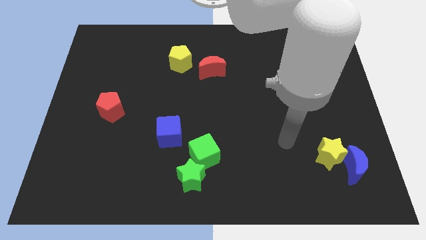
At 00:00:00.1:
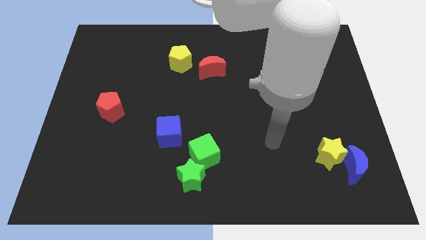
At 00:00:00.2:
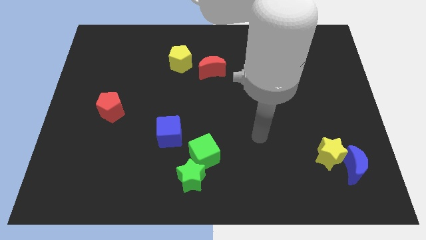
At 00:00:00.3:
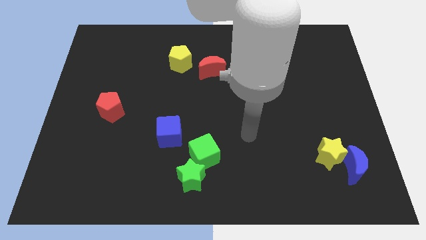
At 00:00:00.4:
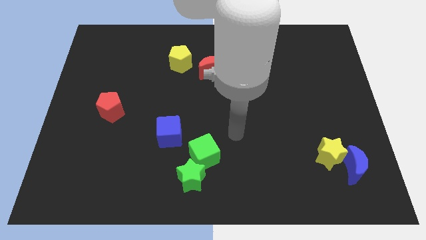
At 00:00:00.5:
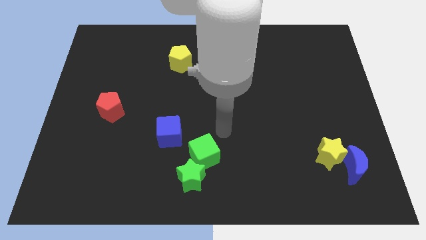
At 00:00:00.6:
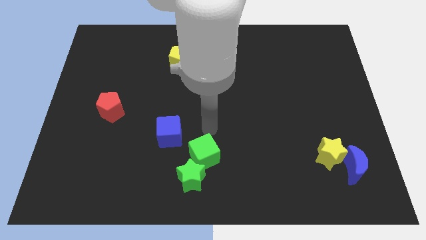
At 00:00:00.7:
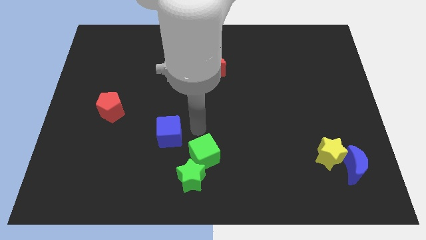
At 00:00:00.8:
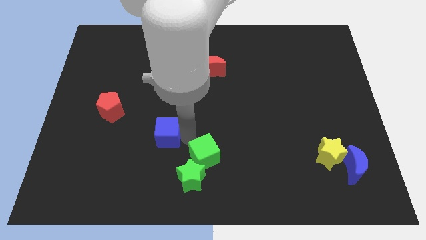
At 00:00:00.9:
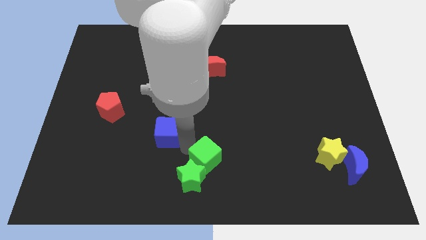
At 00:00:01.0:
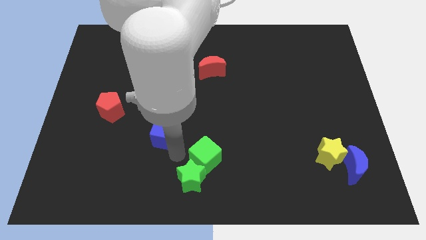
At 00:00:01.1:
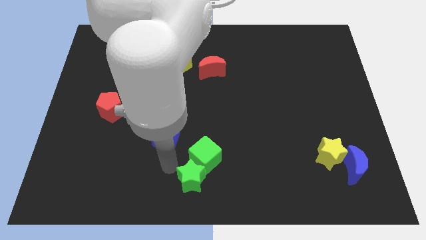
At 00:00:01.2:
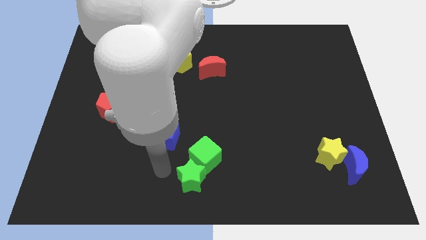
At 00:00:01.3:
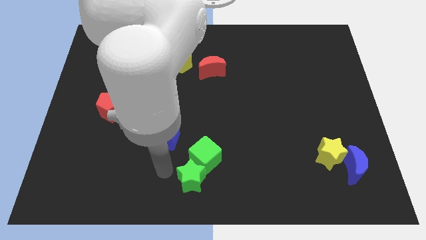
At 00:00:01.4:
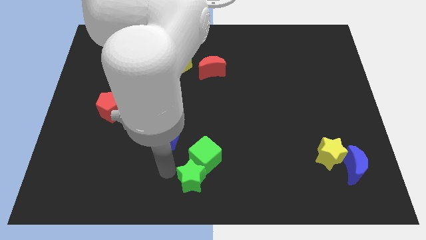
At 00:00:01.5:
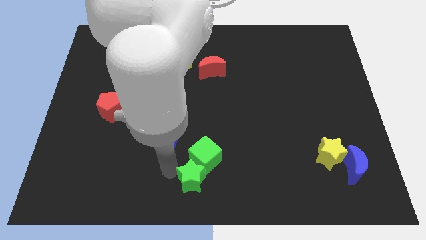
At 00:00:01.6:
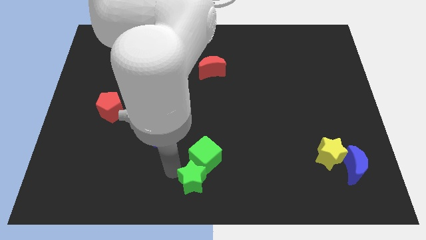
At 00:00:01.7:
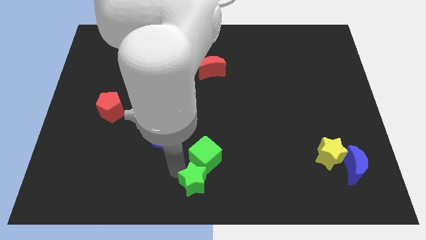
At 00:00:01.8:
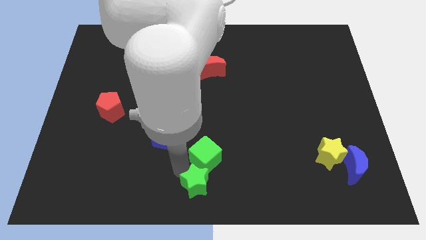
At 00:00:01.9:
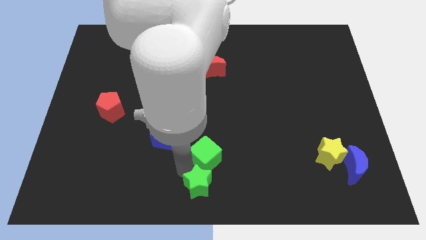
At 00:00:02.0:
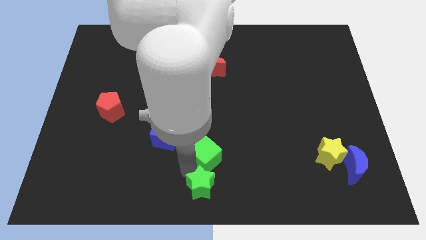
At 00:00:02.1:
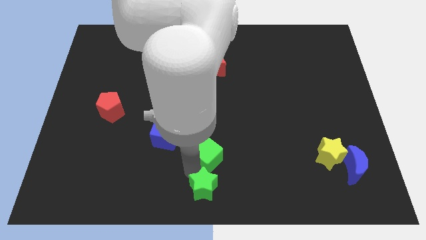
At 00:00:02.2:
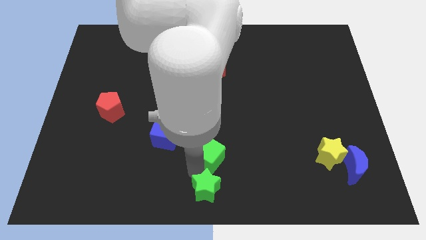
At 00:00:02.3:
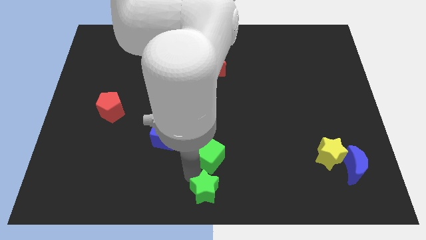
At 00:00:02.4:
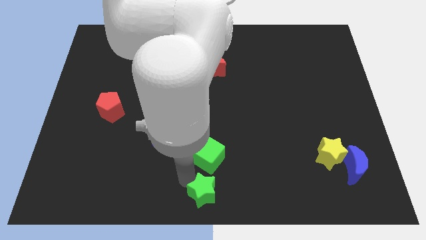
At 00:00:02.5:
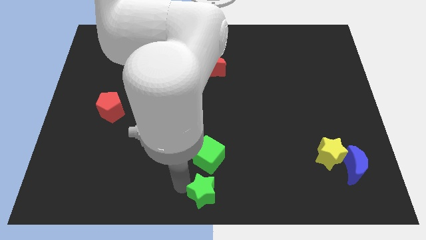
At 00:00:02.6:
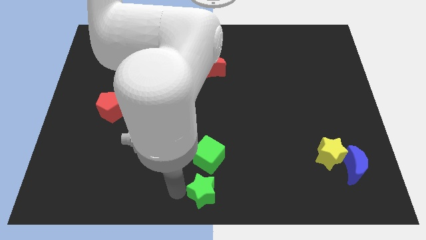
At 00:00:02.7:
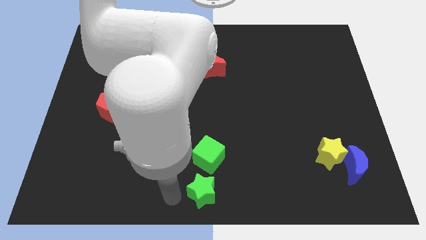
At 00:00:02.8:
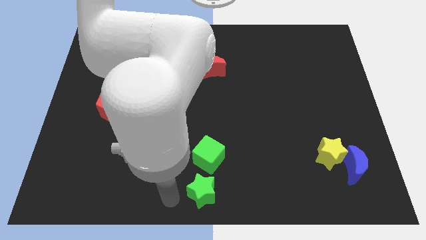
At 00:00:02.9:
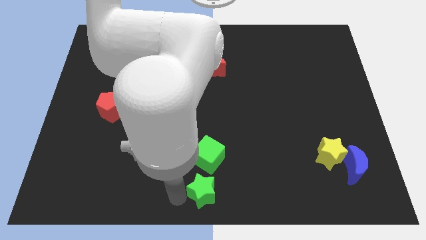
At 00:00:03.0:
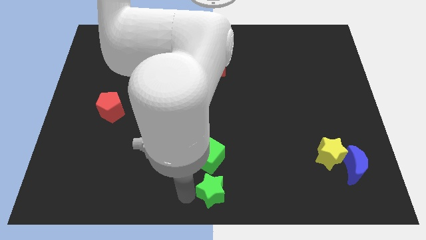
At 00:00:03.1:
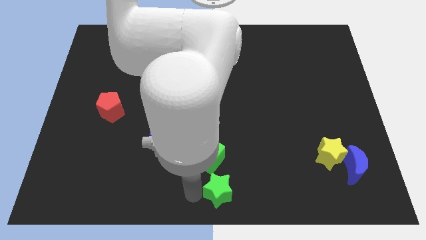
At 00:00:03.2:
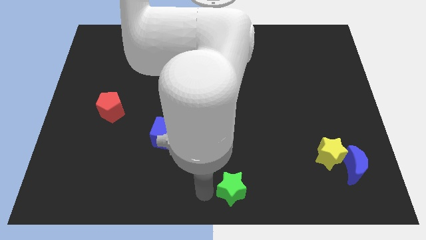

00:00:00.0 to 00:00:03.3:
slightly push the green star right

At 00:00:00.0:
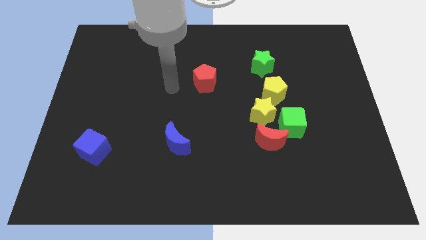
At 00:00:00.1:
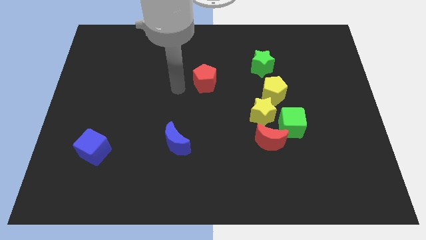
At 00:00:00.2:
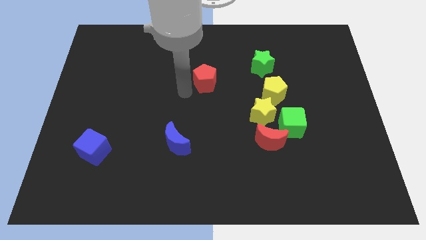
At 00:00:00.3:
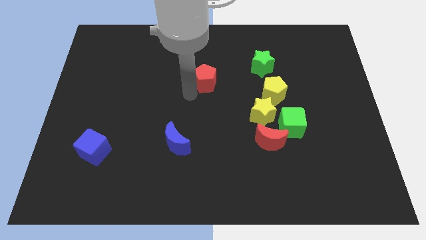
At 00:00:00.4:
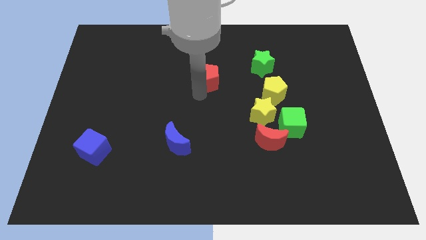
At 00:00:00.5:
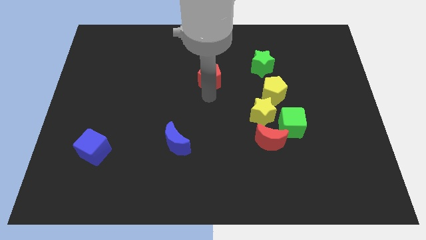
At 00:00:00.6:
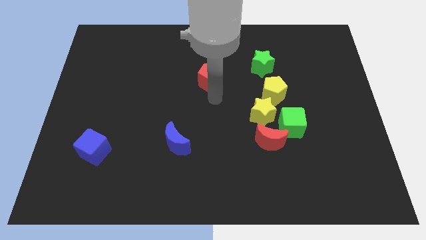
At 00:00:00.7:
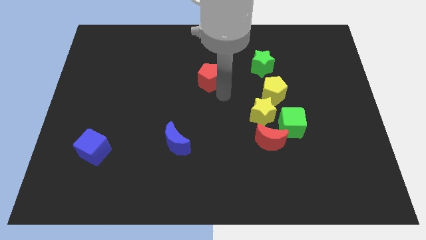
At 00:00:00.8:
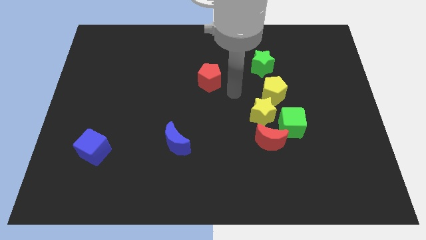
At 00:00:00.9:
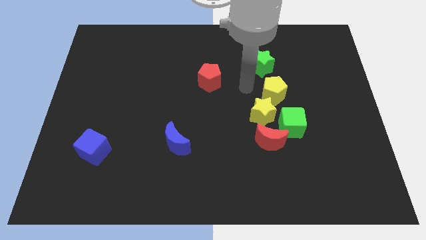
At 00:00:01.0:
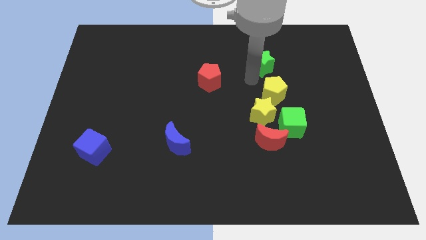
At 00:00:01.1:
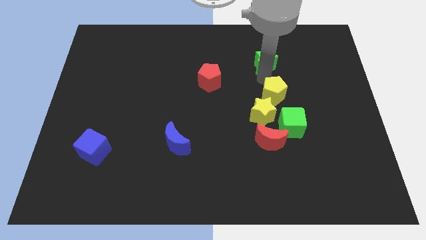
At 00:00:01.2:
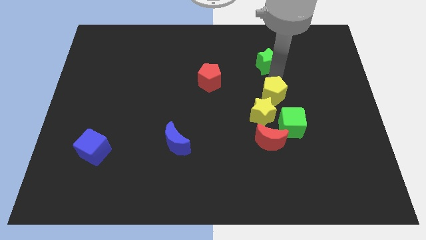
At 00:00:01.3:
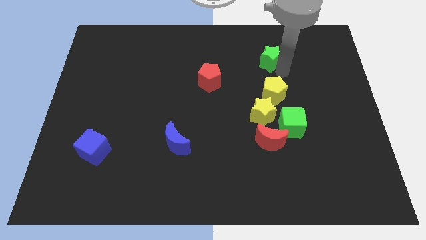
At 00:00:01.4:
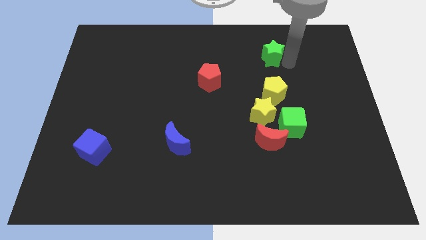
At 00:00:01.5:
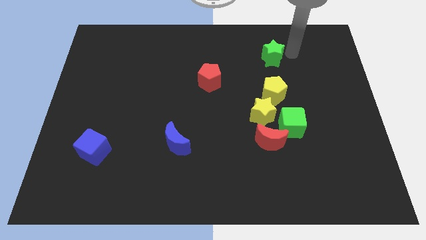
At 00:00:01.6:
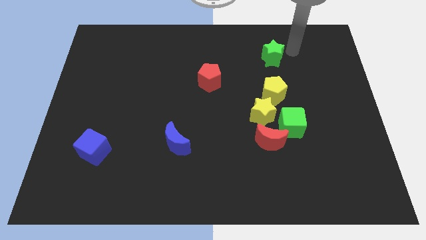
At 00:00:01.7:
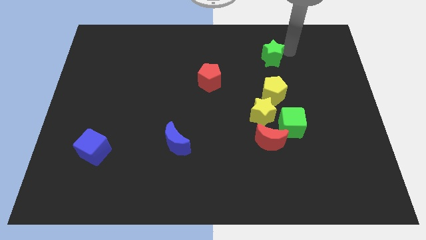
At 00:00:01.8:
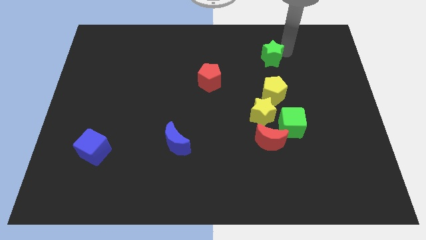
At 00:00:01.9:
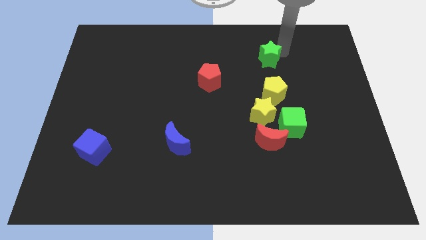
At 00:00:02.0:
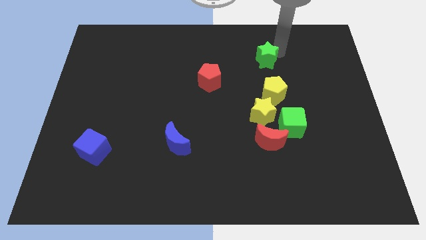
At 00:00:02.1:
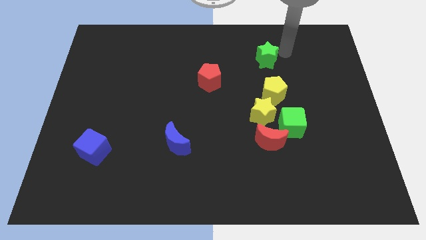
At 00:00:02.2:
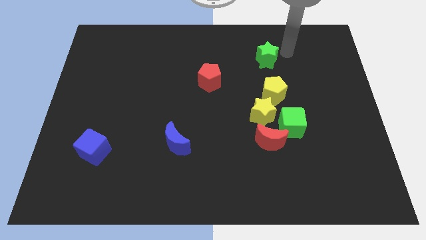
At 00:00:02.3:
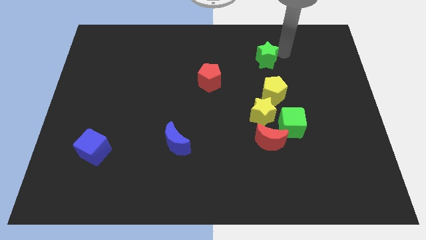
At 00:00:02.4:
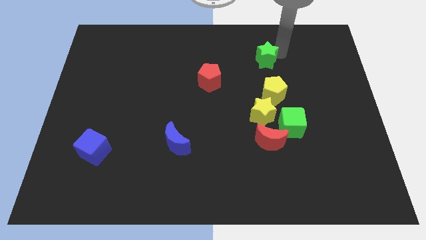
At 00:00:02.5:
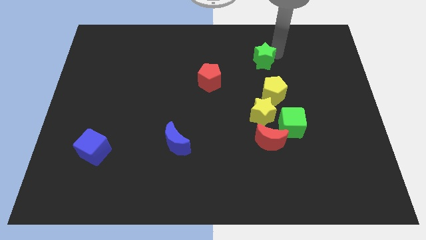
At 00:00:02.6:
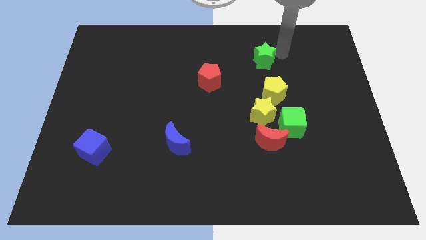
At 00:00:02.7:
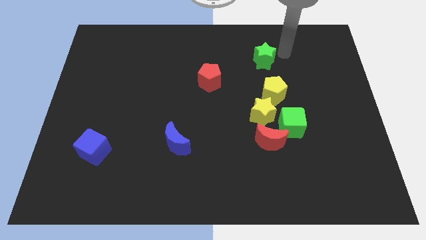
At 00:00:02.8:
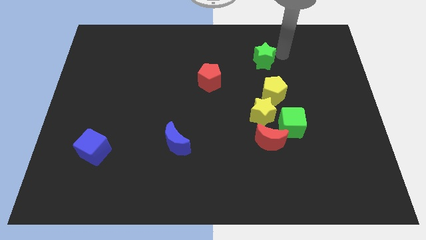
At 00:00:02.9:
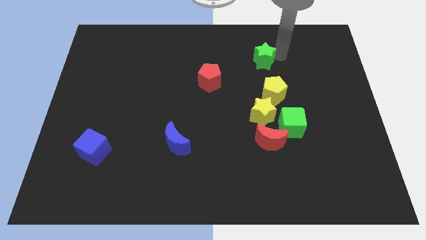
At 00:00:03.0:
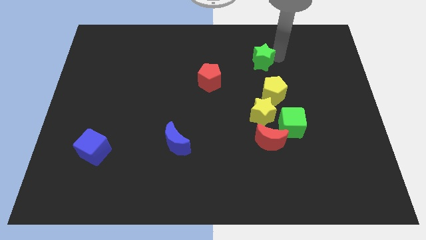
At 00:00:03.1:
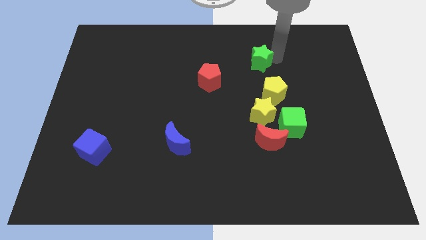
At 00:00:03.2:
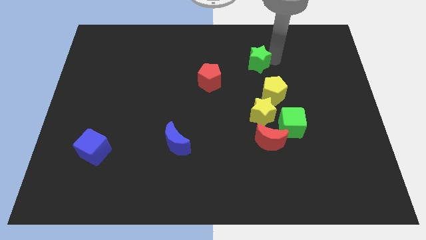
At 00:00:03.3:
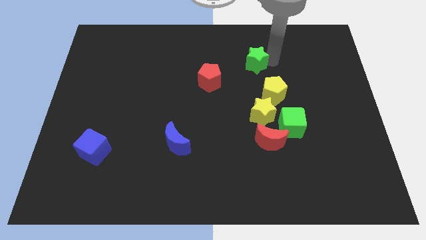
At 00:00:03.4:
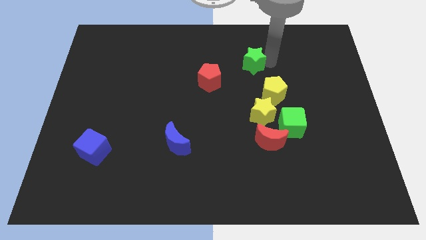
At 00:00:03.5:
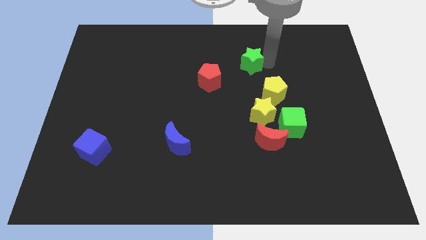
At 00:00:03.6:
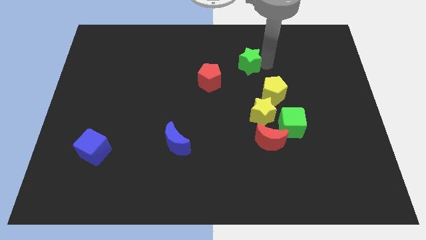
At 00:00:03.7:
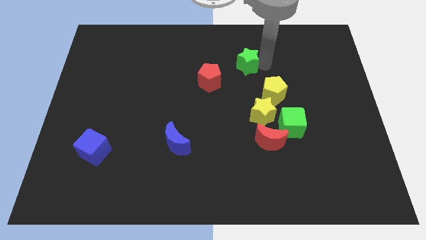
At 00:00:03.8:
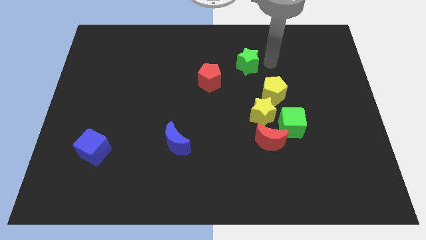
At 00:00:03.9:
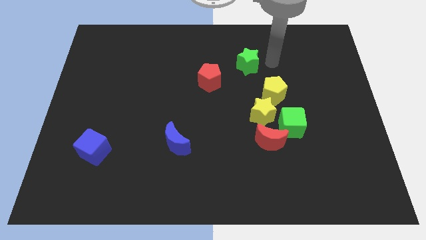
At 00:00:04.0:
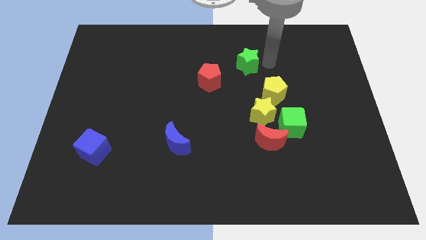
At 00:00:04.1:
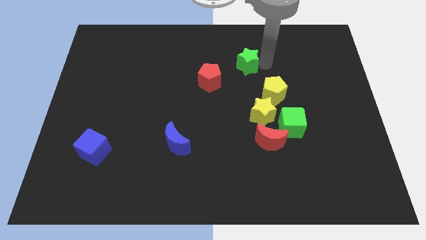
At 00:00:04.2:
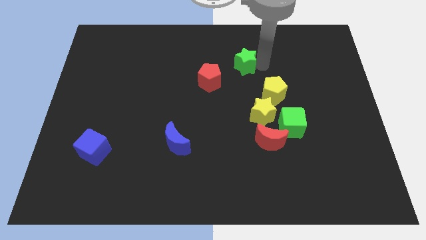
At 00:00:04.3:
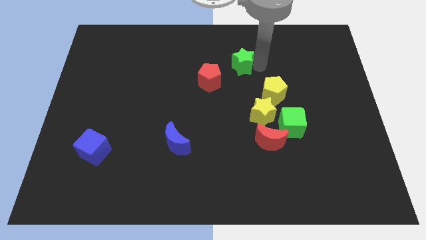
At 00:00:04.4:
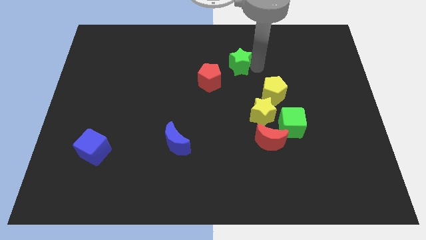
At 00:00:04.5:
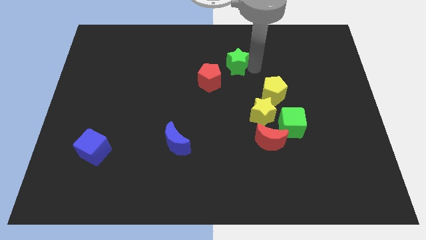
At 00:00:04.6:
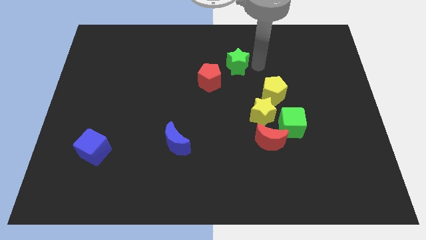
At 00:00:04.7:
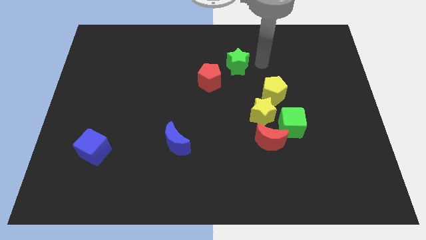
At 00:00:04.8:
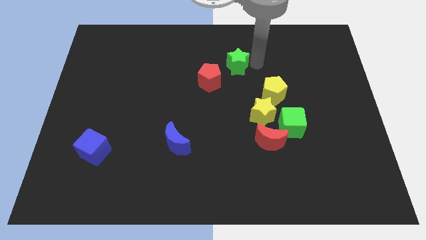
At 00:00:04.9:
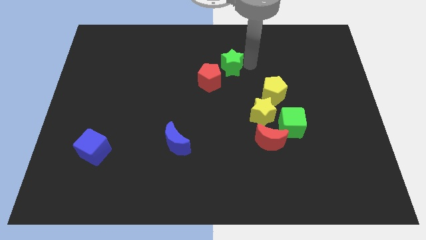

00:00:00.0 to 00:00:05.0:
push the green star to the left a bit

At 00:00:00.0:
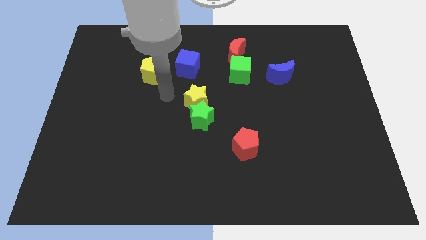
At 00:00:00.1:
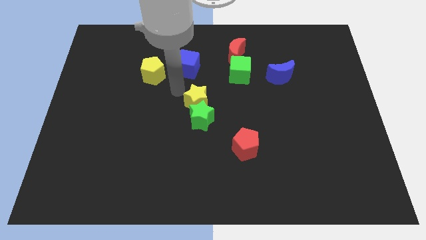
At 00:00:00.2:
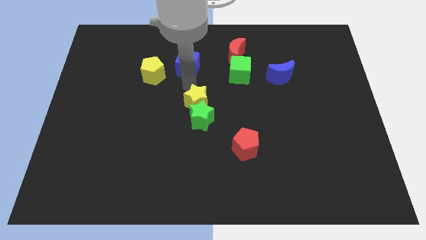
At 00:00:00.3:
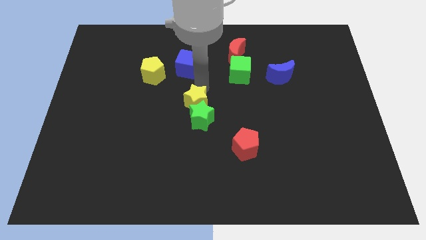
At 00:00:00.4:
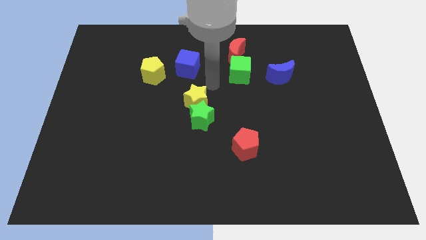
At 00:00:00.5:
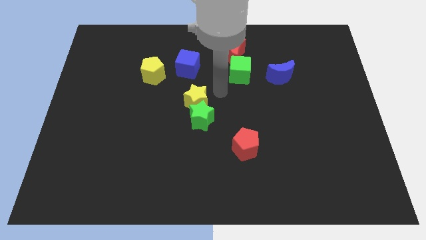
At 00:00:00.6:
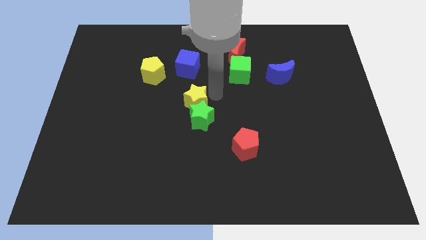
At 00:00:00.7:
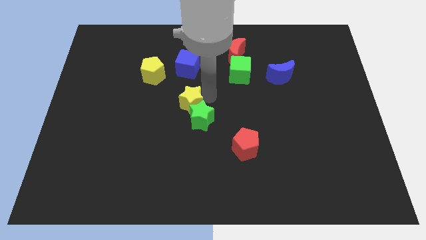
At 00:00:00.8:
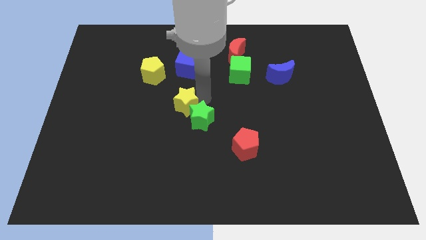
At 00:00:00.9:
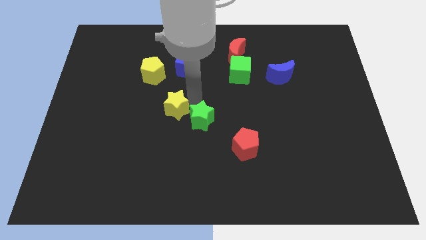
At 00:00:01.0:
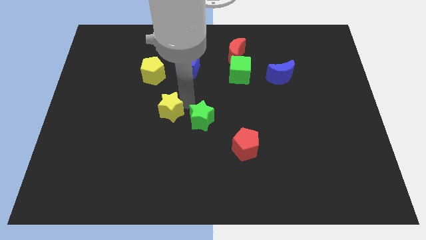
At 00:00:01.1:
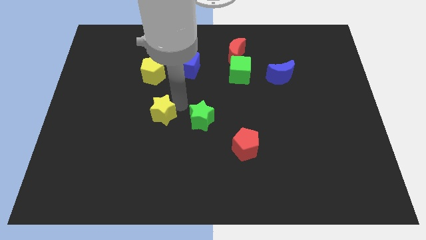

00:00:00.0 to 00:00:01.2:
slightly slide the yellow star down and then left
